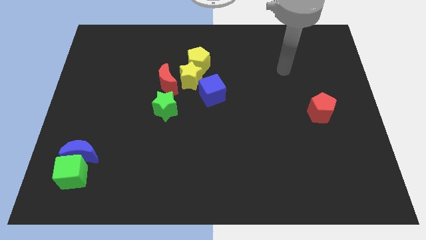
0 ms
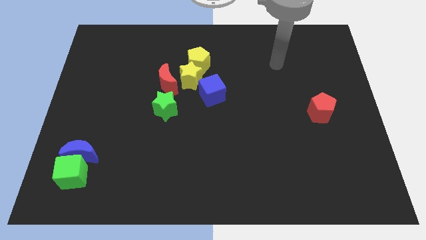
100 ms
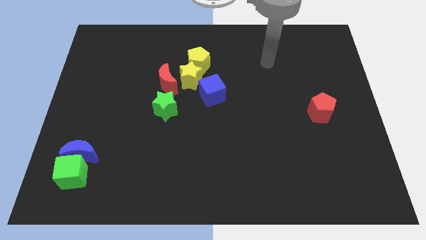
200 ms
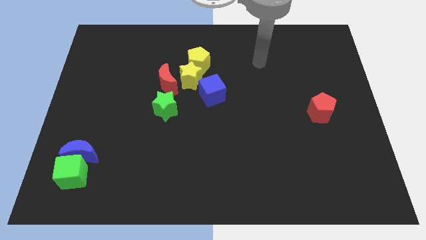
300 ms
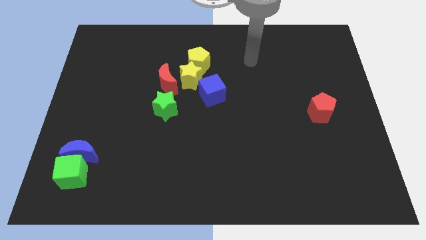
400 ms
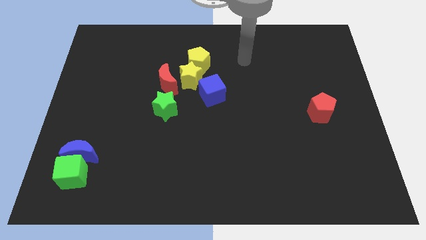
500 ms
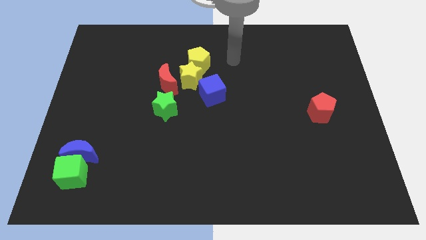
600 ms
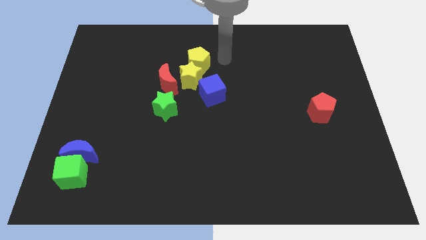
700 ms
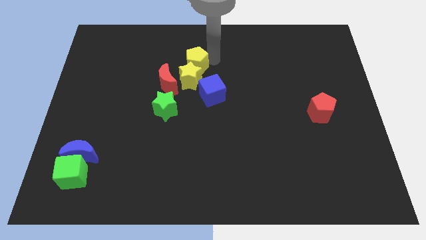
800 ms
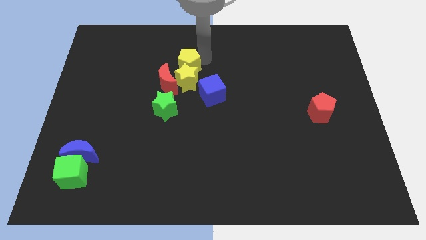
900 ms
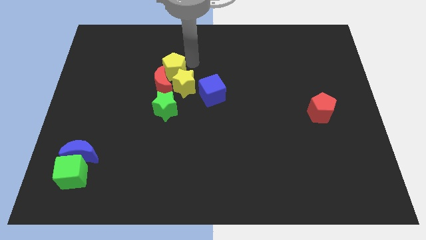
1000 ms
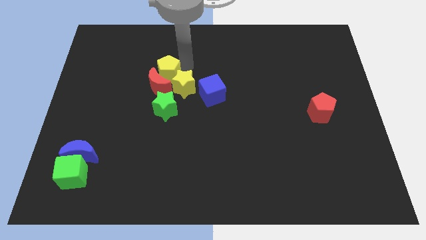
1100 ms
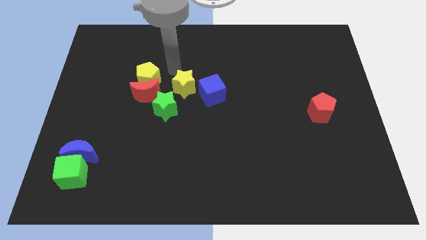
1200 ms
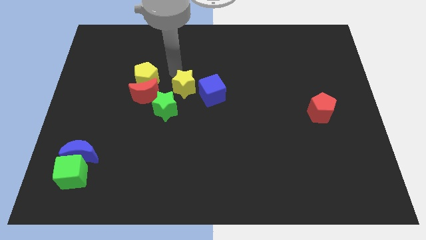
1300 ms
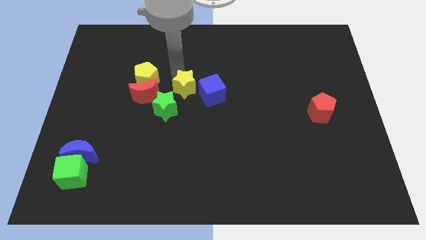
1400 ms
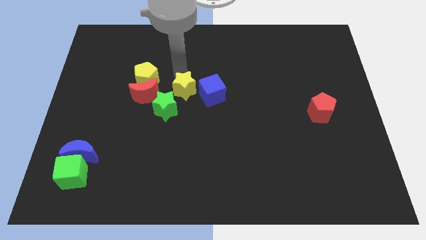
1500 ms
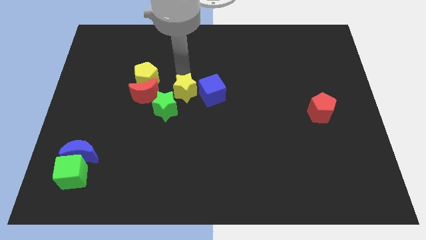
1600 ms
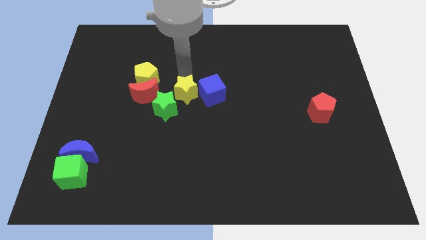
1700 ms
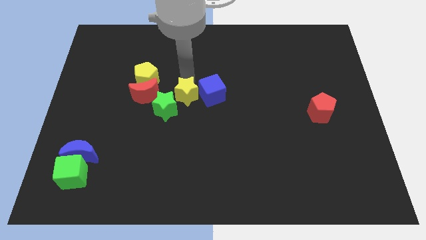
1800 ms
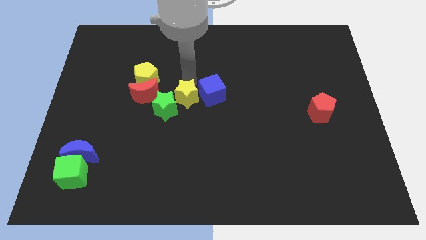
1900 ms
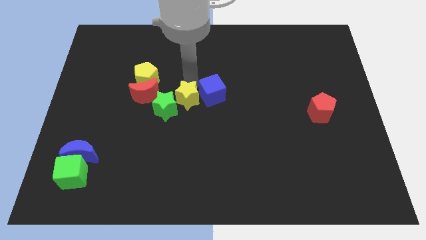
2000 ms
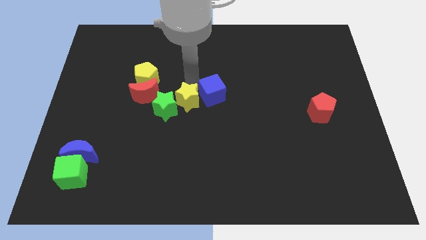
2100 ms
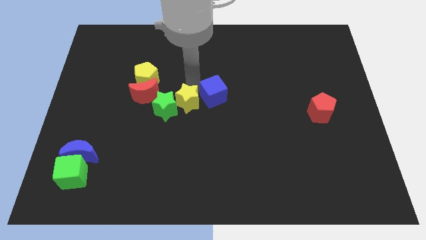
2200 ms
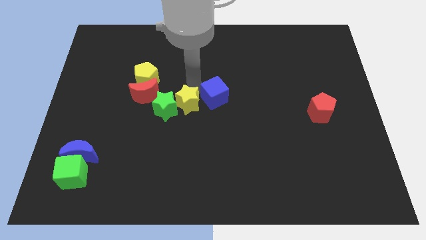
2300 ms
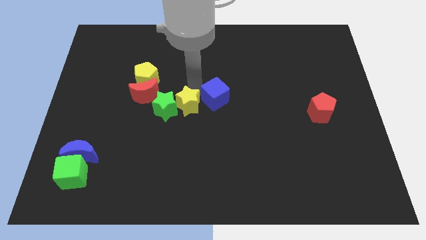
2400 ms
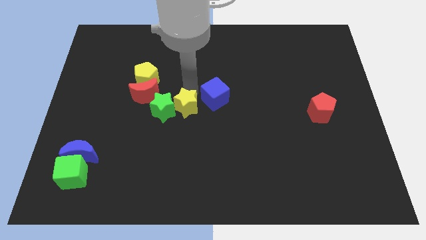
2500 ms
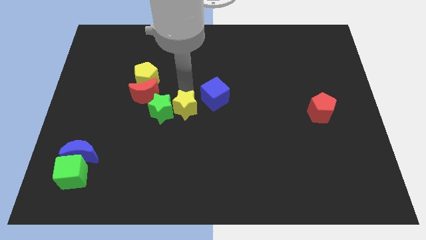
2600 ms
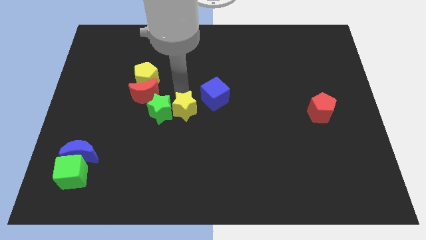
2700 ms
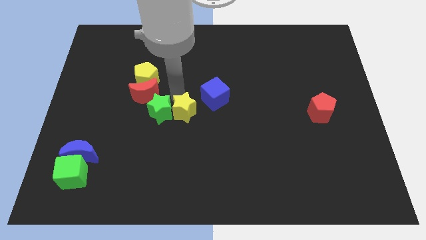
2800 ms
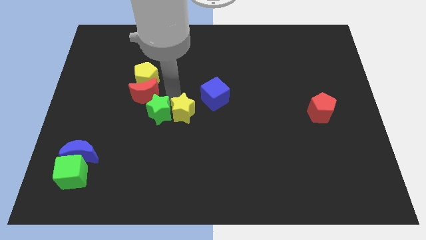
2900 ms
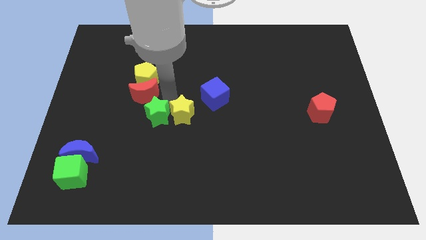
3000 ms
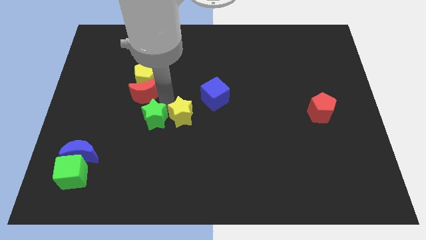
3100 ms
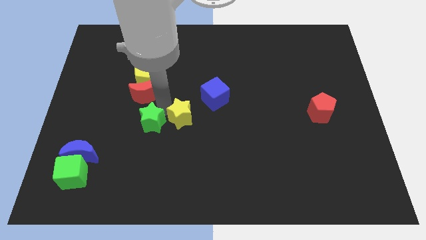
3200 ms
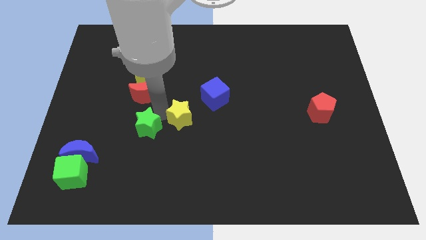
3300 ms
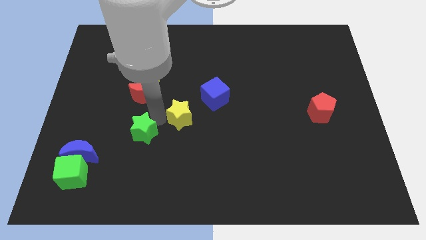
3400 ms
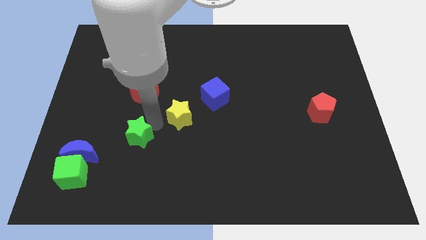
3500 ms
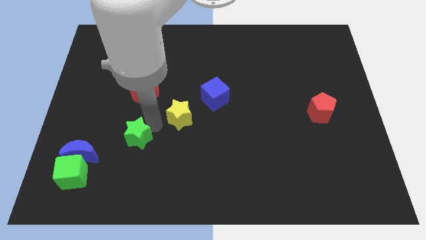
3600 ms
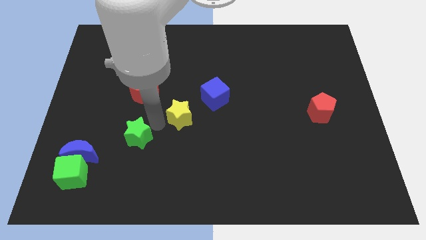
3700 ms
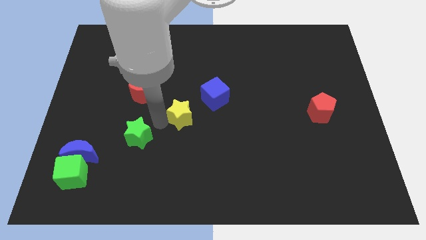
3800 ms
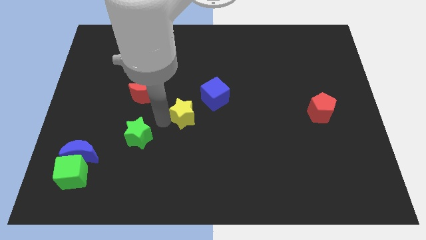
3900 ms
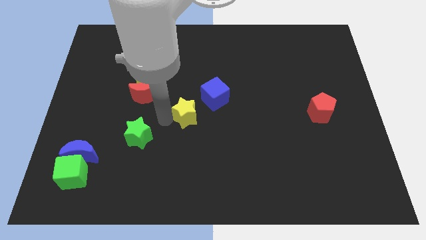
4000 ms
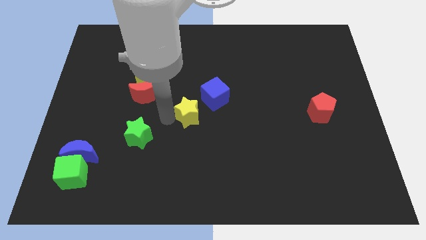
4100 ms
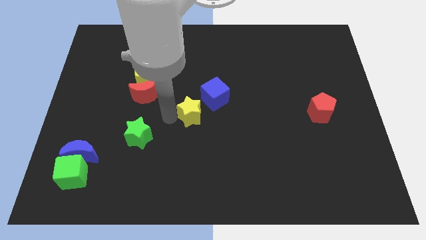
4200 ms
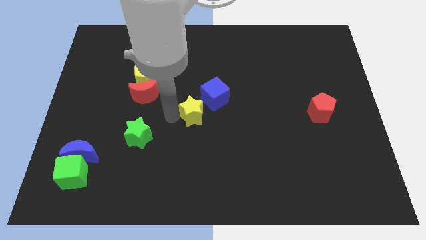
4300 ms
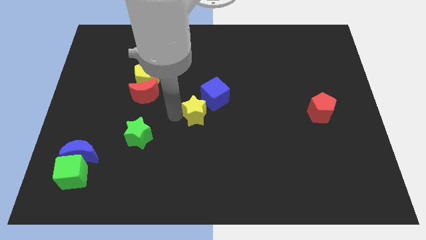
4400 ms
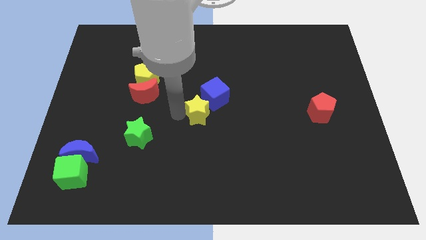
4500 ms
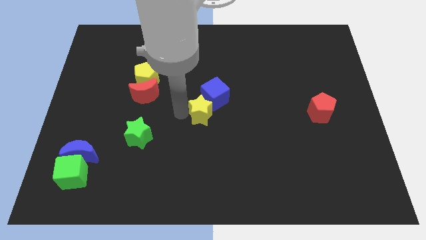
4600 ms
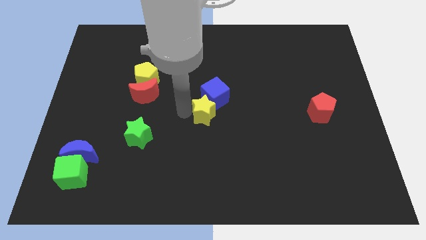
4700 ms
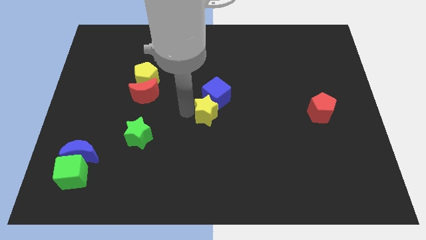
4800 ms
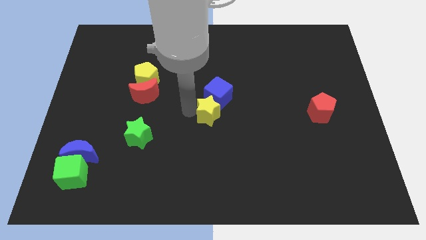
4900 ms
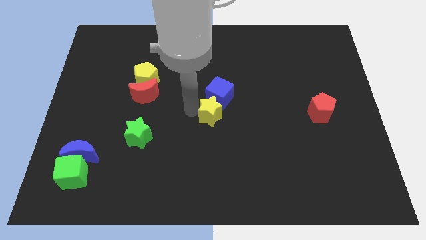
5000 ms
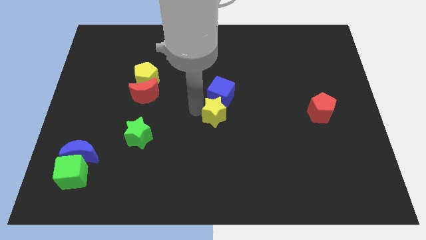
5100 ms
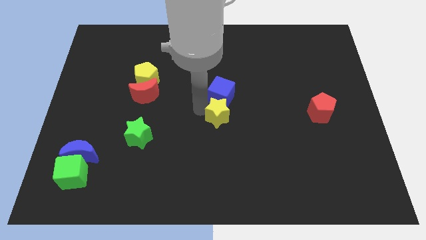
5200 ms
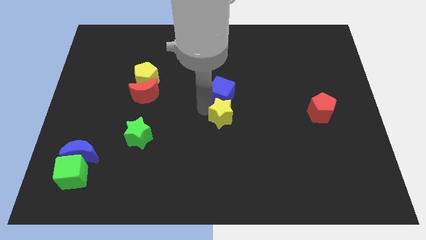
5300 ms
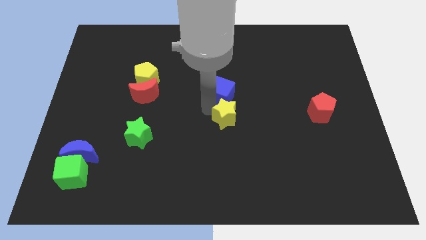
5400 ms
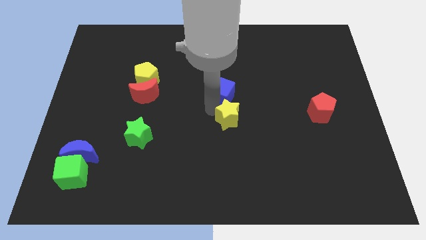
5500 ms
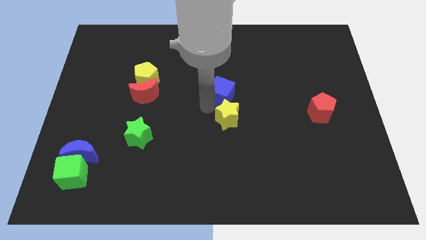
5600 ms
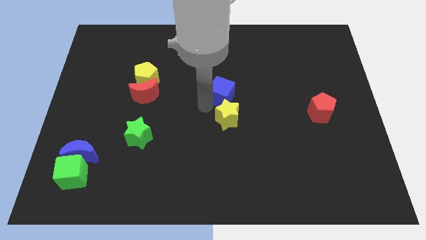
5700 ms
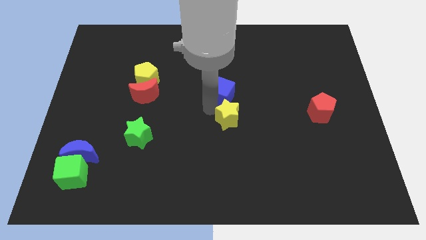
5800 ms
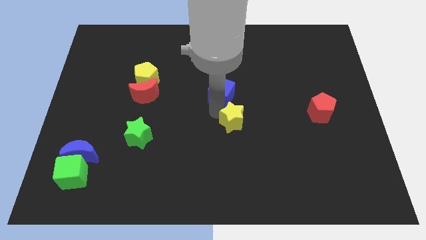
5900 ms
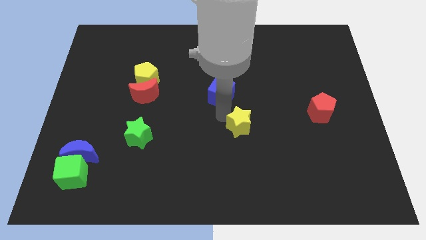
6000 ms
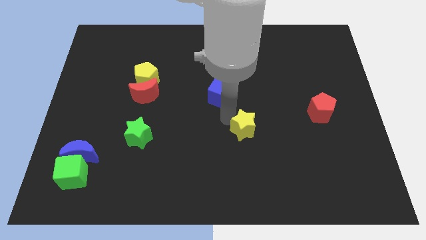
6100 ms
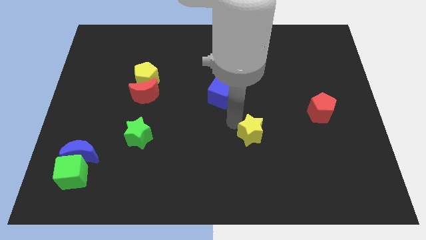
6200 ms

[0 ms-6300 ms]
slide the yellow star diagonally downwards and to the right

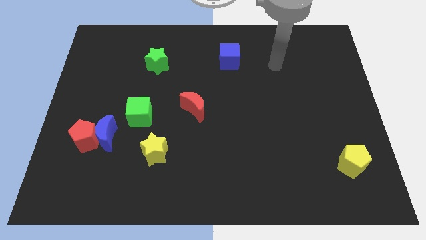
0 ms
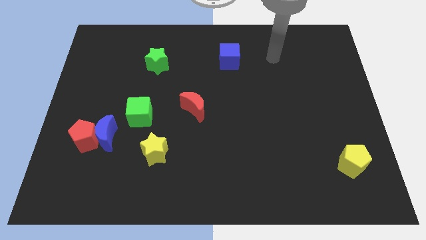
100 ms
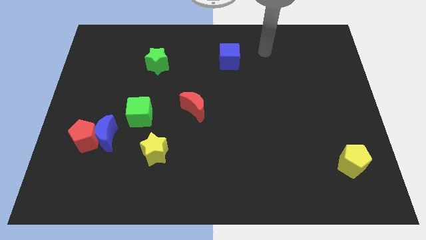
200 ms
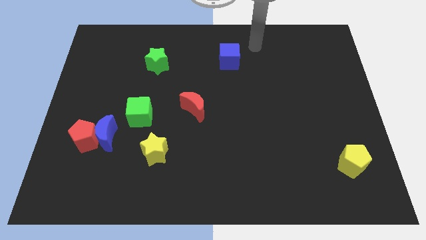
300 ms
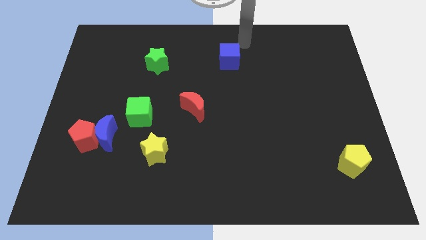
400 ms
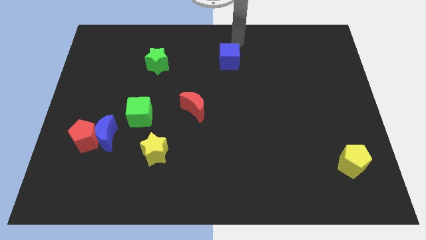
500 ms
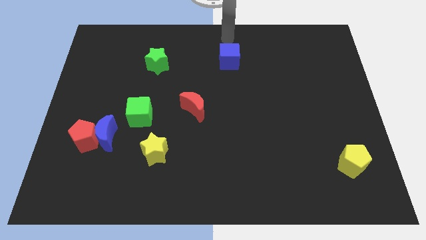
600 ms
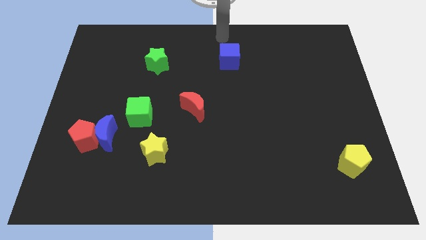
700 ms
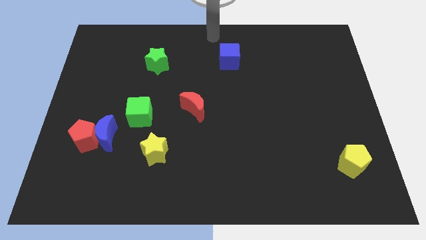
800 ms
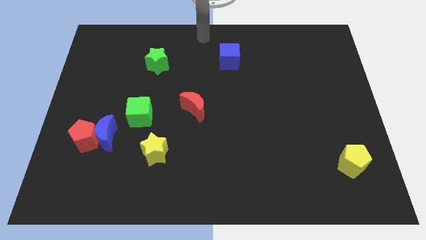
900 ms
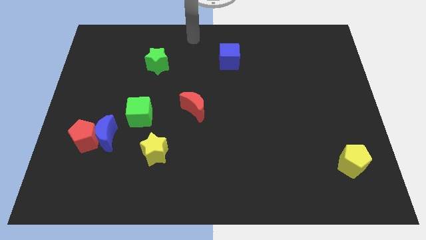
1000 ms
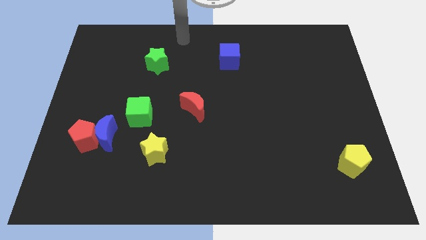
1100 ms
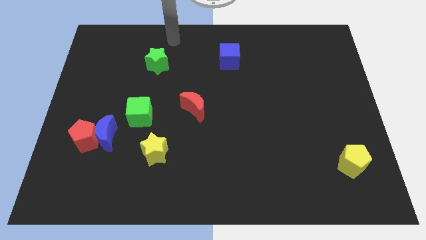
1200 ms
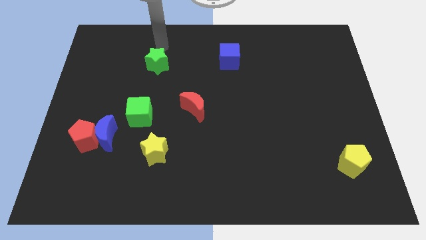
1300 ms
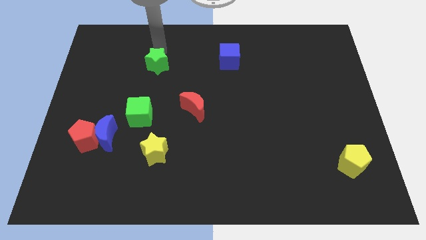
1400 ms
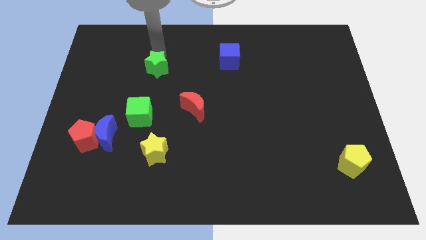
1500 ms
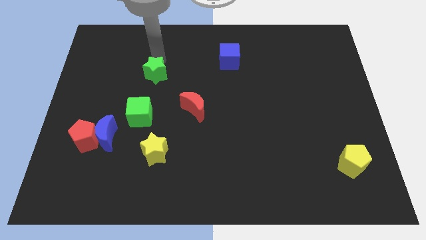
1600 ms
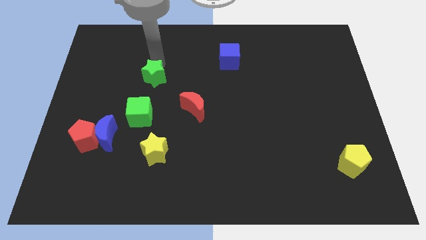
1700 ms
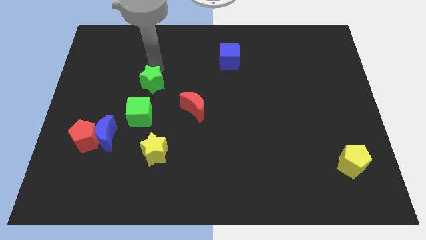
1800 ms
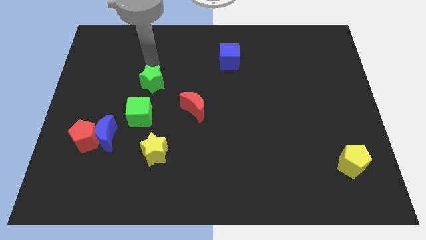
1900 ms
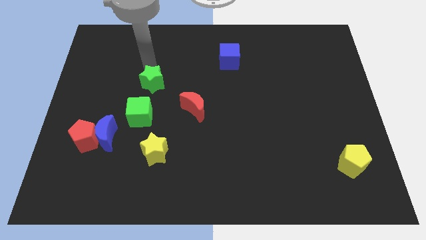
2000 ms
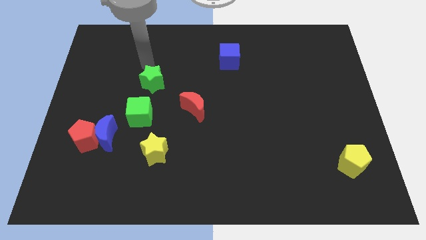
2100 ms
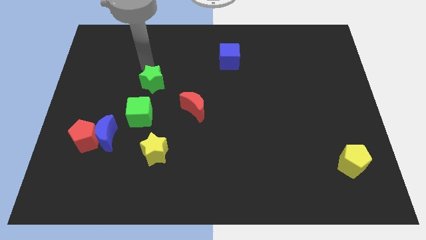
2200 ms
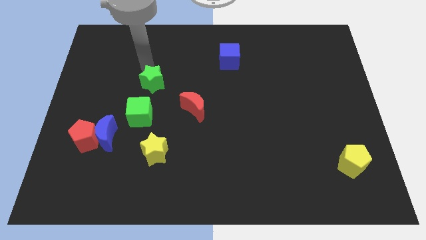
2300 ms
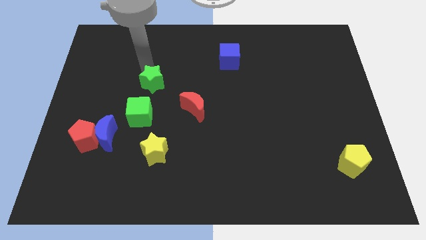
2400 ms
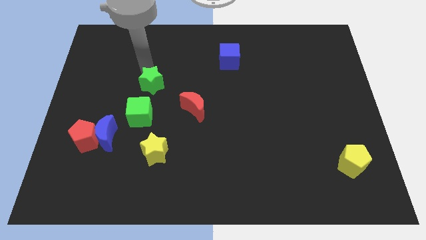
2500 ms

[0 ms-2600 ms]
slightly slide the green star down
